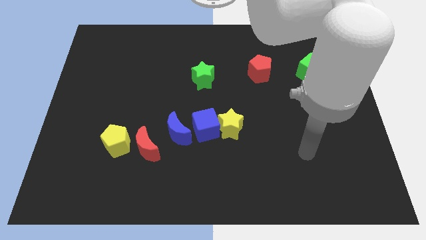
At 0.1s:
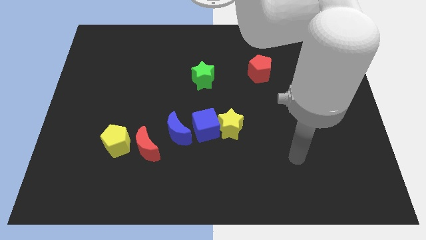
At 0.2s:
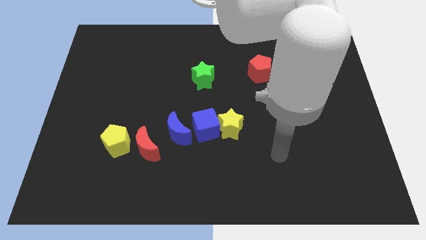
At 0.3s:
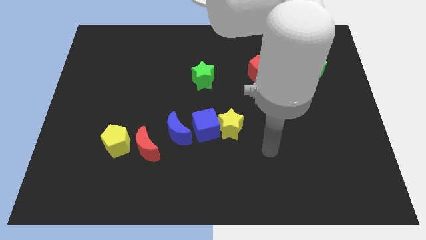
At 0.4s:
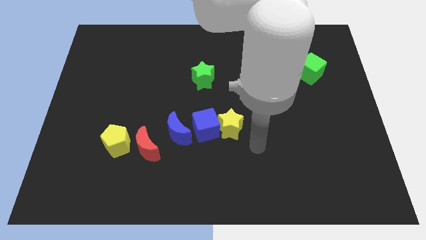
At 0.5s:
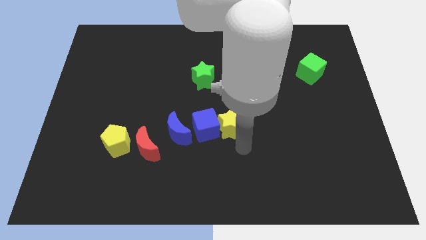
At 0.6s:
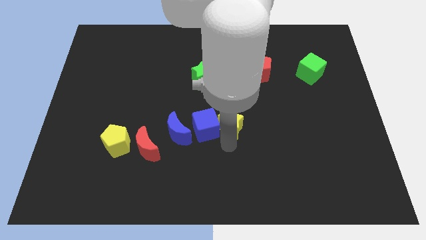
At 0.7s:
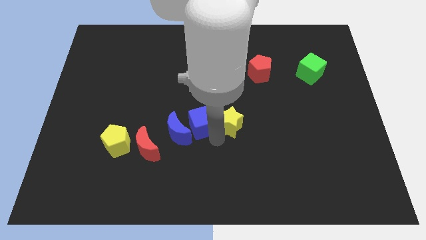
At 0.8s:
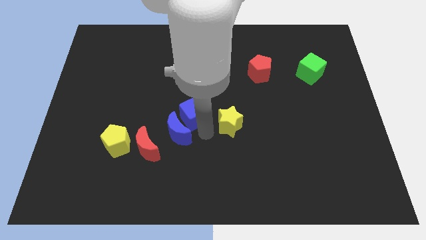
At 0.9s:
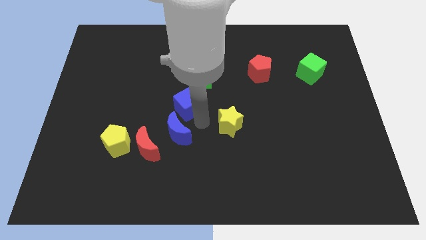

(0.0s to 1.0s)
separate the yellow star from the blue cube

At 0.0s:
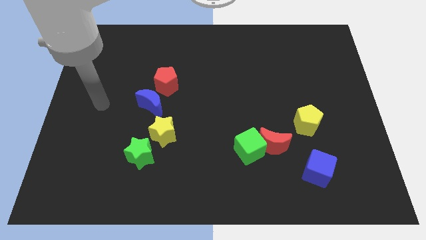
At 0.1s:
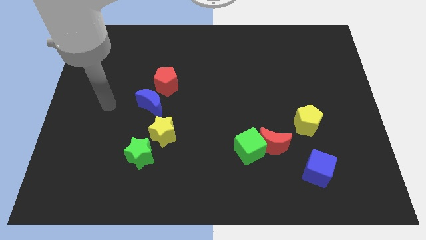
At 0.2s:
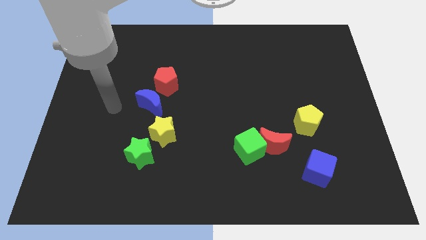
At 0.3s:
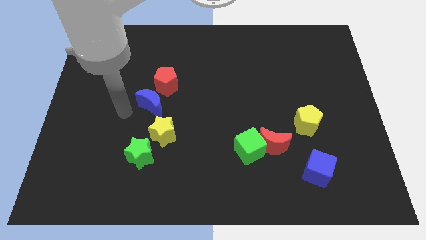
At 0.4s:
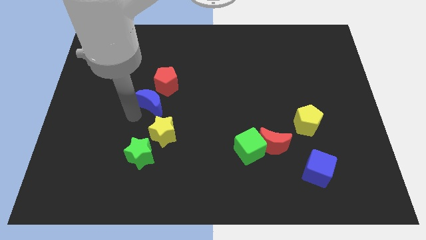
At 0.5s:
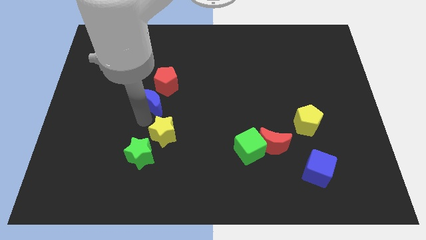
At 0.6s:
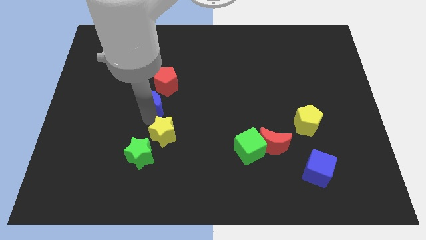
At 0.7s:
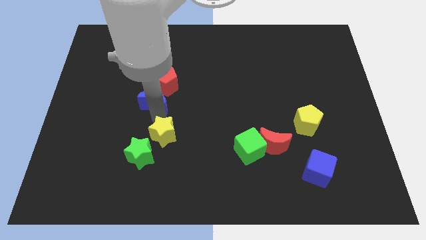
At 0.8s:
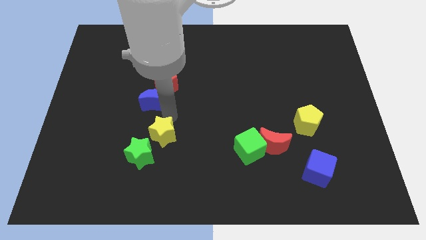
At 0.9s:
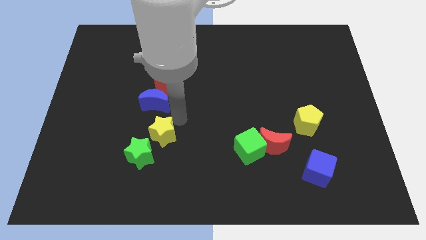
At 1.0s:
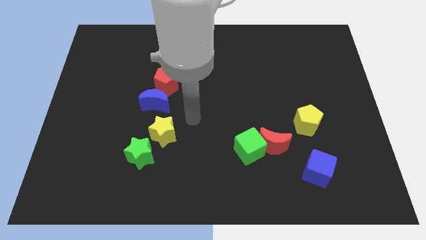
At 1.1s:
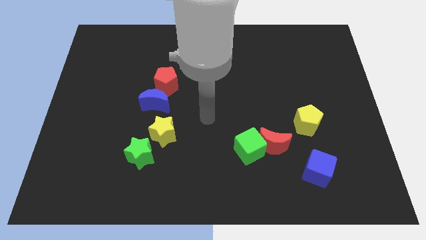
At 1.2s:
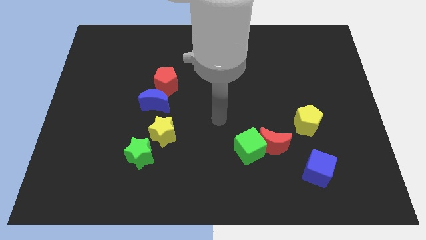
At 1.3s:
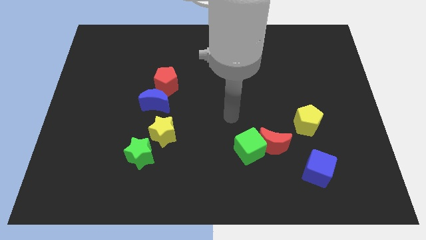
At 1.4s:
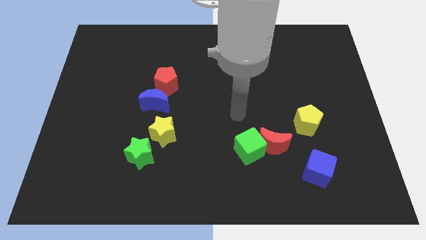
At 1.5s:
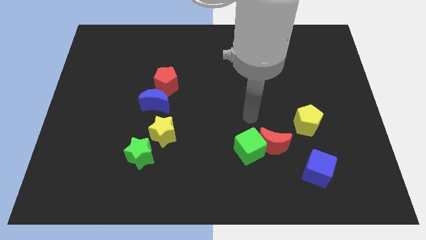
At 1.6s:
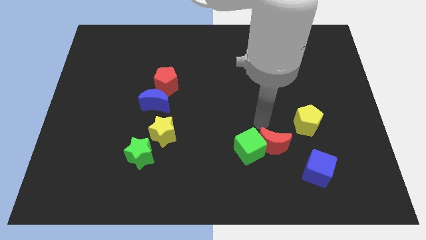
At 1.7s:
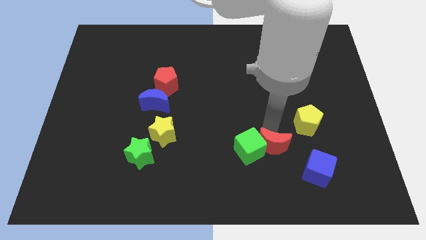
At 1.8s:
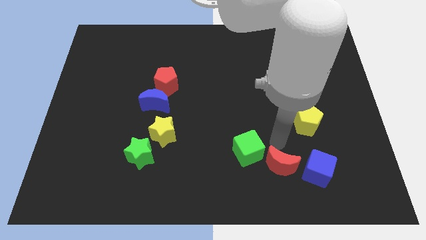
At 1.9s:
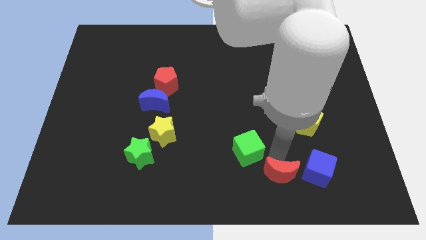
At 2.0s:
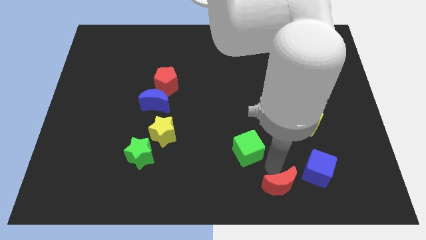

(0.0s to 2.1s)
move the green cube away from the red moon

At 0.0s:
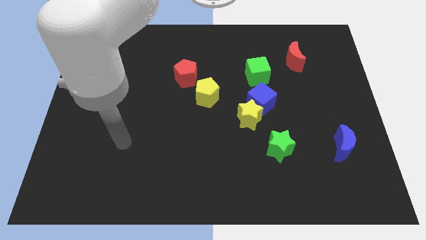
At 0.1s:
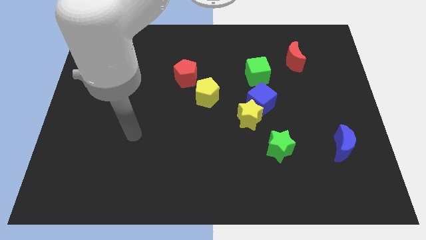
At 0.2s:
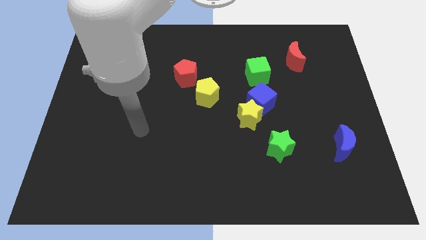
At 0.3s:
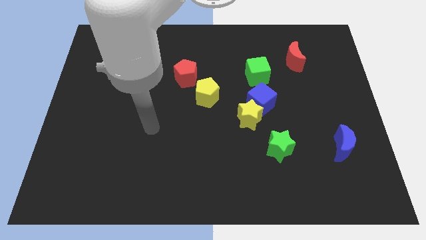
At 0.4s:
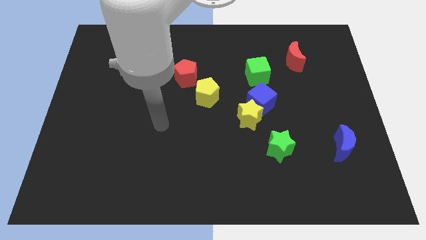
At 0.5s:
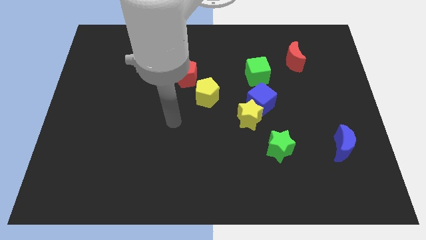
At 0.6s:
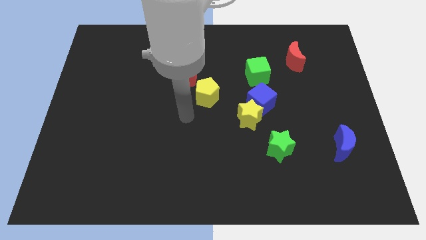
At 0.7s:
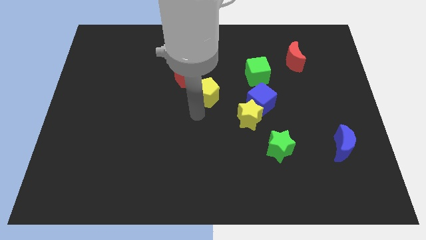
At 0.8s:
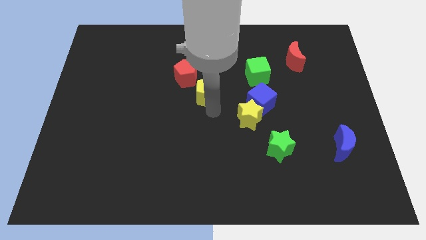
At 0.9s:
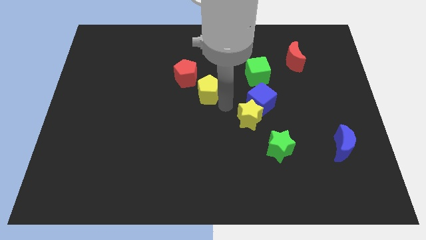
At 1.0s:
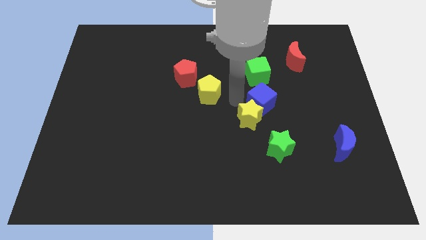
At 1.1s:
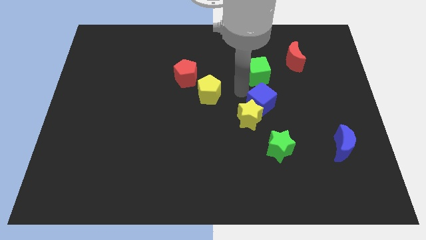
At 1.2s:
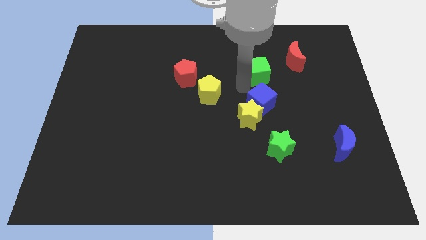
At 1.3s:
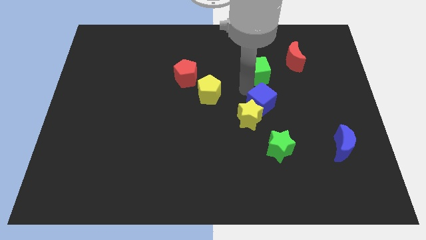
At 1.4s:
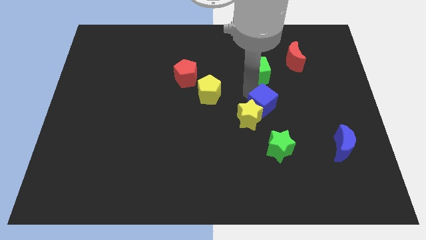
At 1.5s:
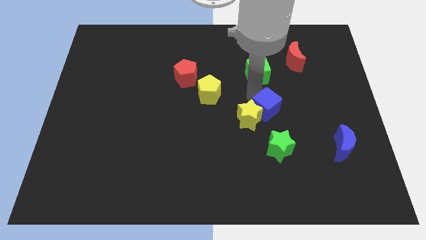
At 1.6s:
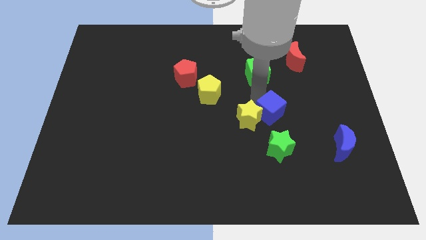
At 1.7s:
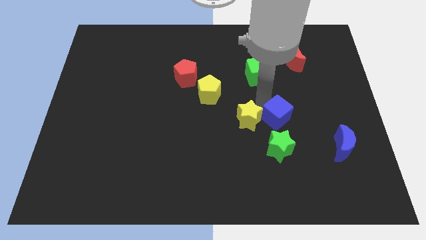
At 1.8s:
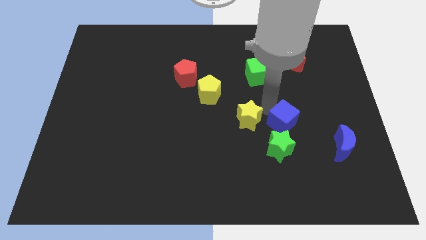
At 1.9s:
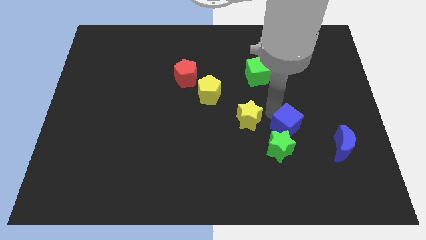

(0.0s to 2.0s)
separate the blue cube from the yellow star and green cube

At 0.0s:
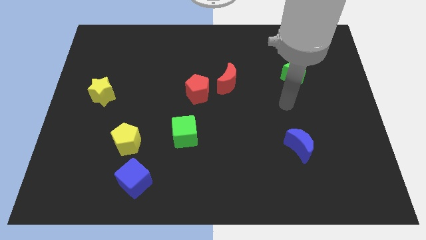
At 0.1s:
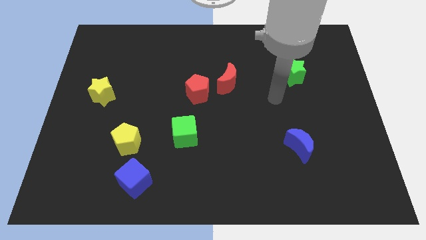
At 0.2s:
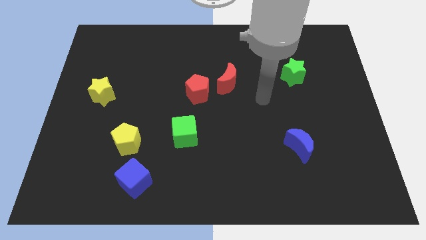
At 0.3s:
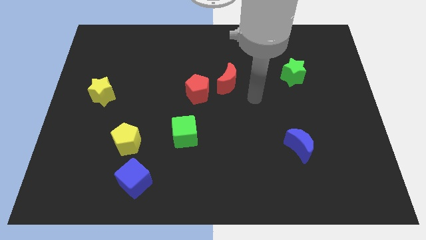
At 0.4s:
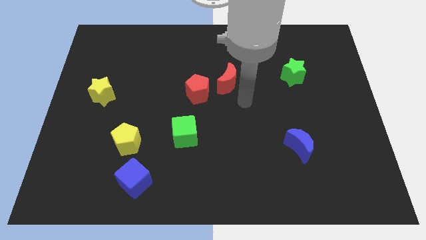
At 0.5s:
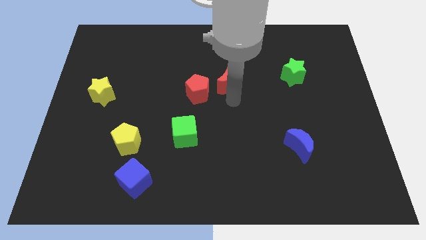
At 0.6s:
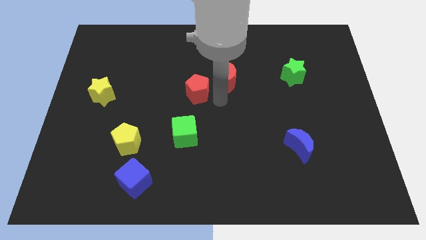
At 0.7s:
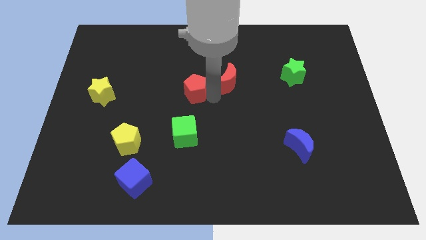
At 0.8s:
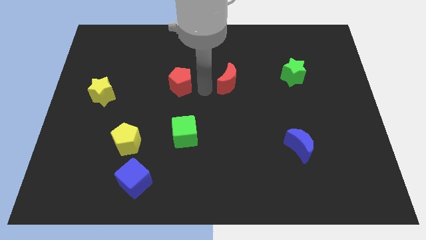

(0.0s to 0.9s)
move the red moon away from the red pentagon

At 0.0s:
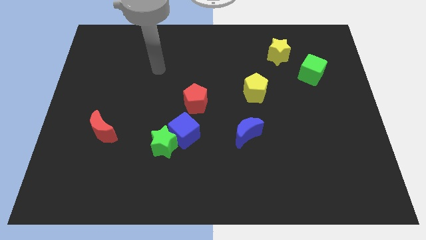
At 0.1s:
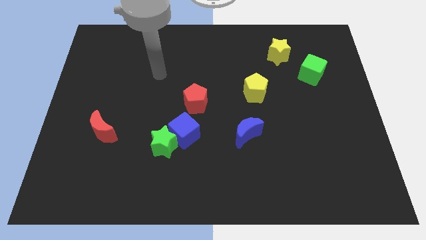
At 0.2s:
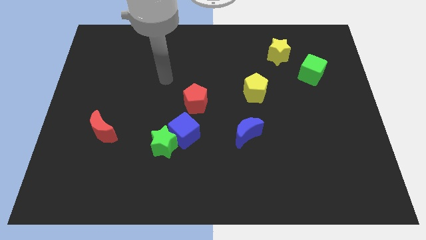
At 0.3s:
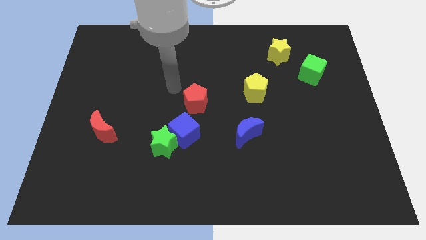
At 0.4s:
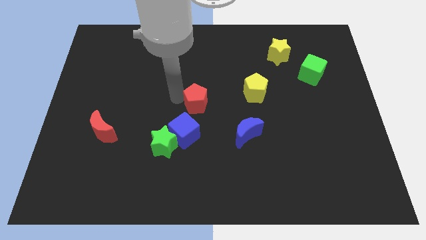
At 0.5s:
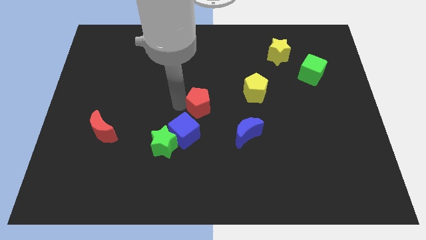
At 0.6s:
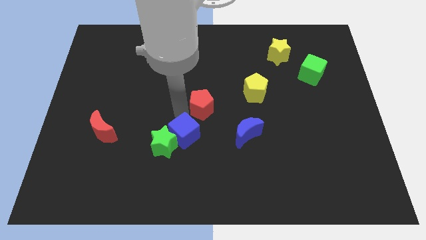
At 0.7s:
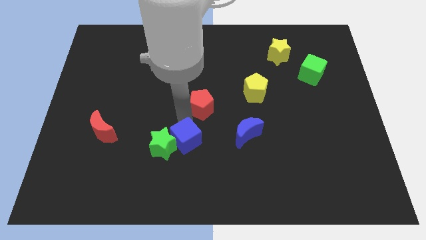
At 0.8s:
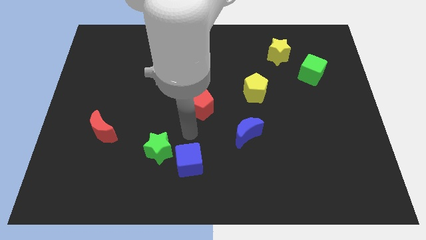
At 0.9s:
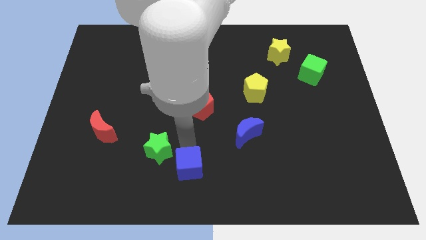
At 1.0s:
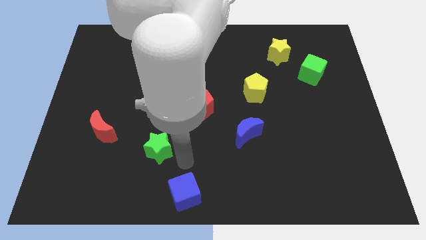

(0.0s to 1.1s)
move the green star away from the blue cube

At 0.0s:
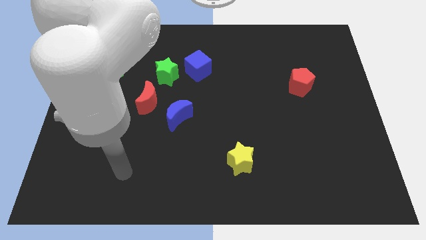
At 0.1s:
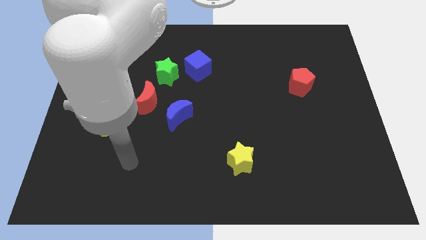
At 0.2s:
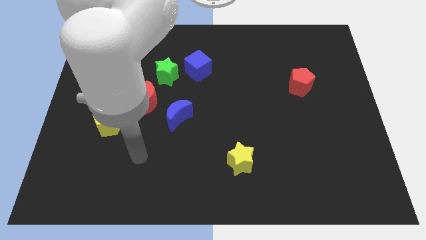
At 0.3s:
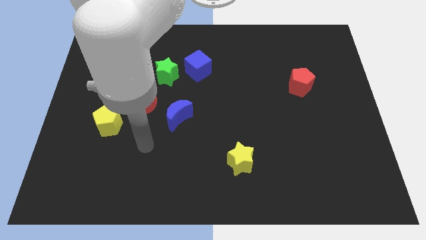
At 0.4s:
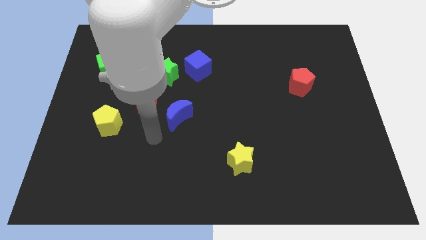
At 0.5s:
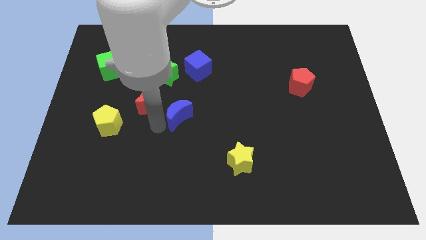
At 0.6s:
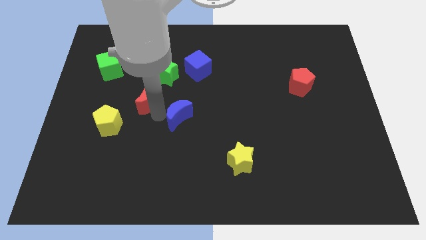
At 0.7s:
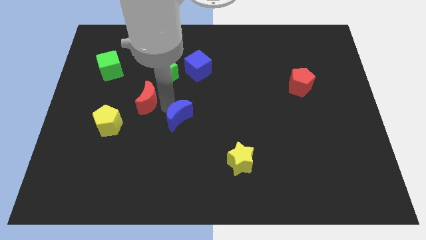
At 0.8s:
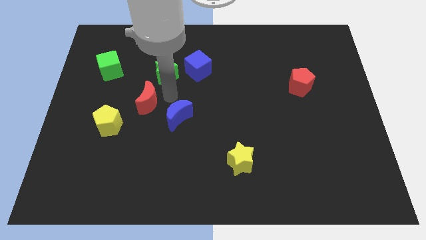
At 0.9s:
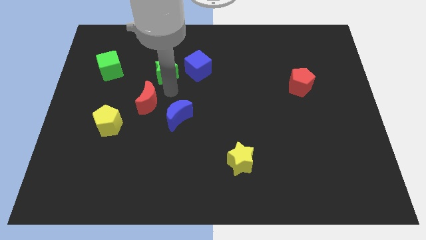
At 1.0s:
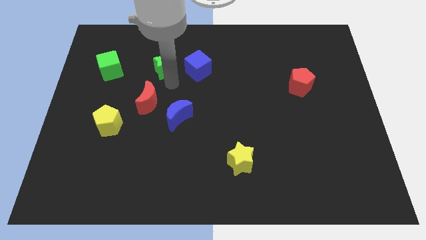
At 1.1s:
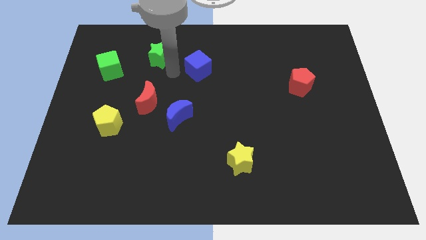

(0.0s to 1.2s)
pull the blue cube apart from the green star

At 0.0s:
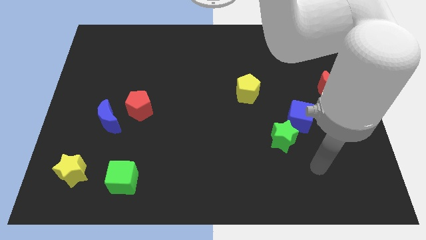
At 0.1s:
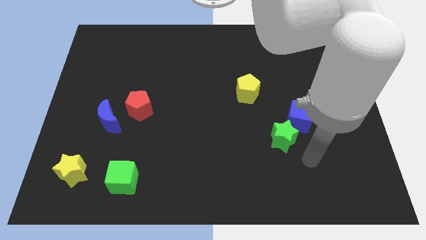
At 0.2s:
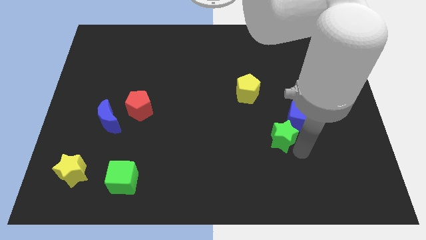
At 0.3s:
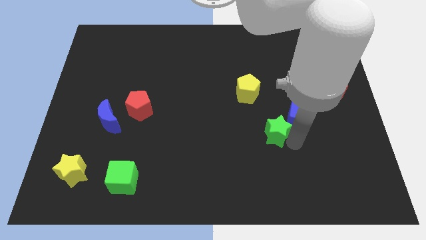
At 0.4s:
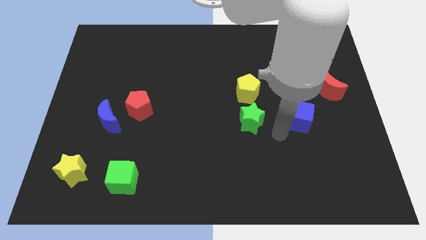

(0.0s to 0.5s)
move the blue cube away from the green star

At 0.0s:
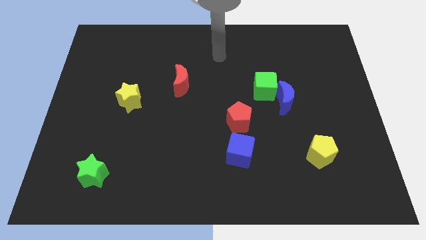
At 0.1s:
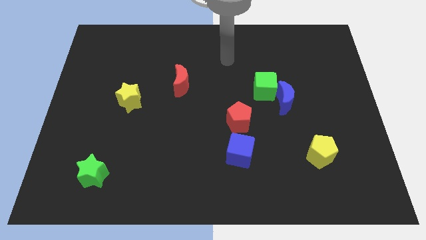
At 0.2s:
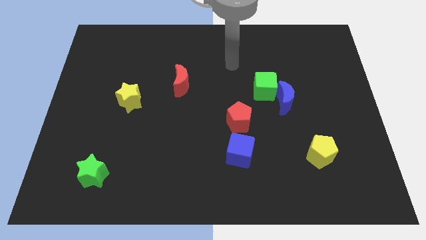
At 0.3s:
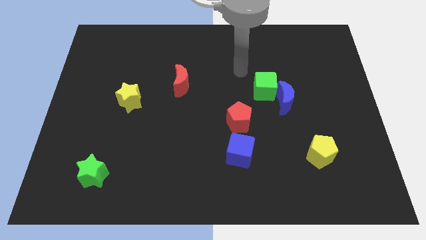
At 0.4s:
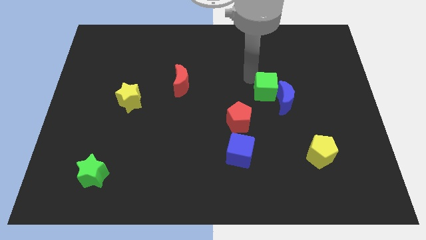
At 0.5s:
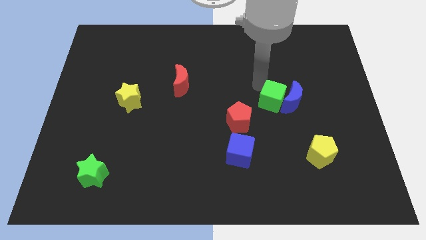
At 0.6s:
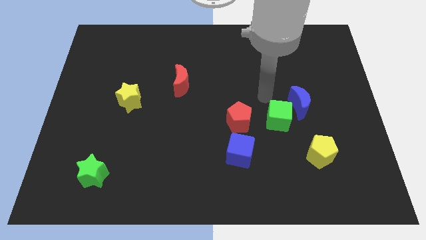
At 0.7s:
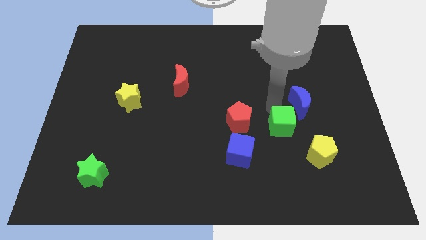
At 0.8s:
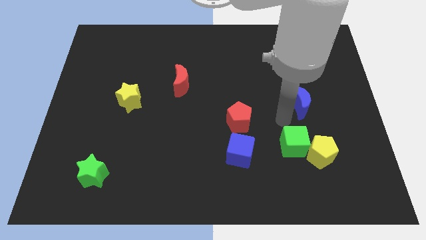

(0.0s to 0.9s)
move the blue moon away from the green cube
